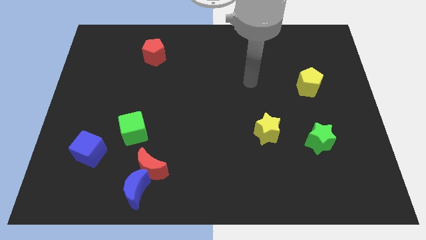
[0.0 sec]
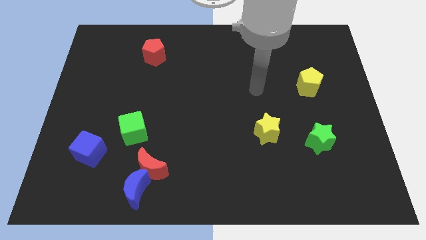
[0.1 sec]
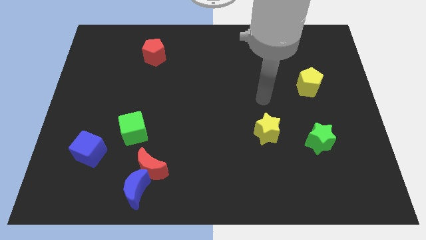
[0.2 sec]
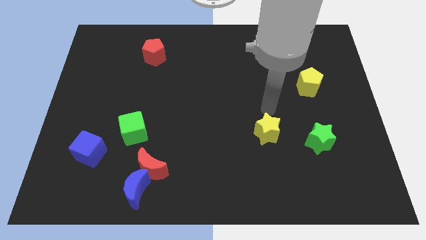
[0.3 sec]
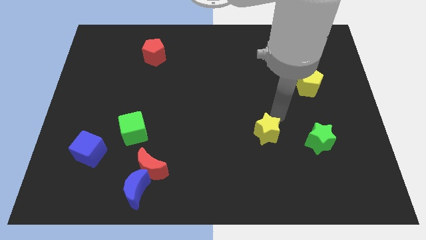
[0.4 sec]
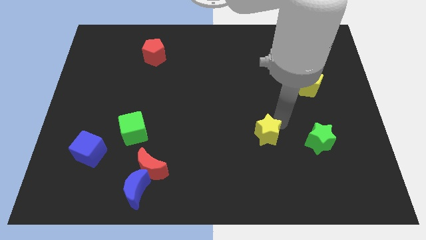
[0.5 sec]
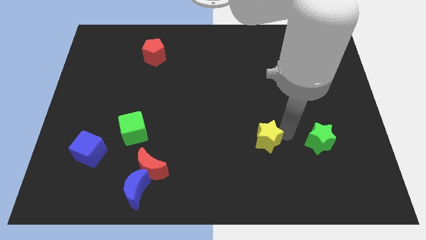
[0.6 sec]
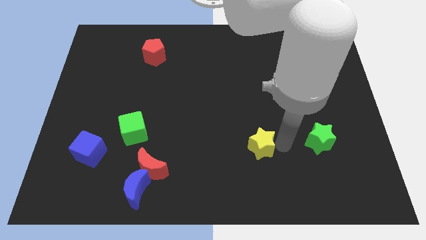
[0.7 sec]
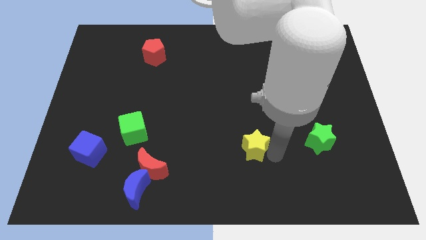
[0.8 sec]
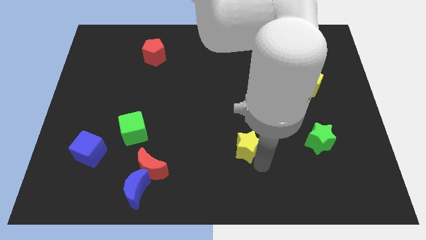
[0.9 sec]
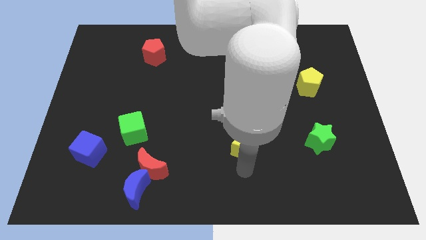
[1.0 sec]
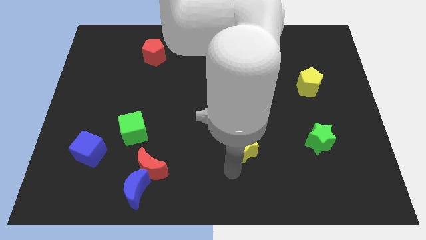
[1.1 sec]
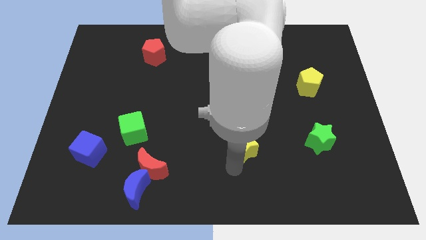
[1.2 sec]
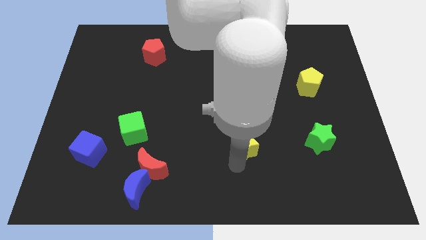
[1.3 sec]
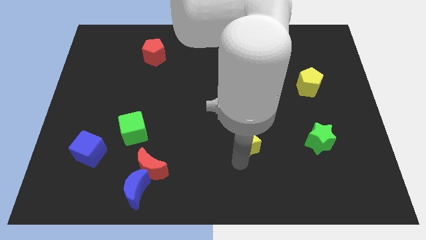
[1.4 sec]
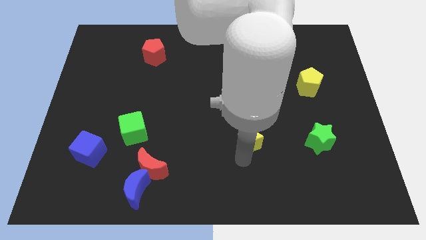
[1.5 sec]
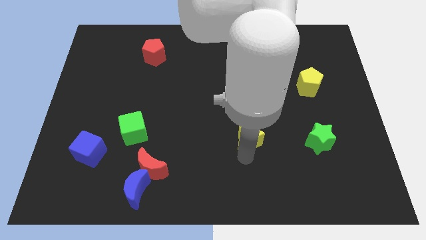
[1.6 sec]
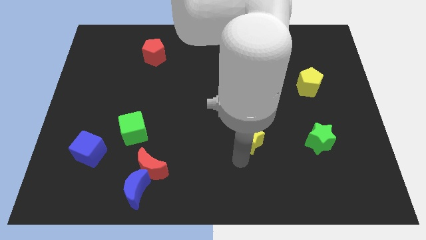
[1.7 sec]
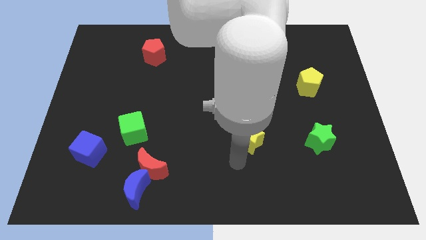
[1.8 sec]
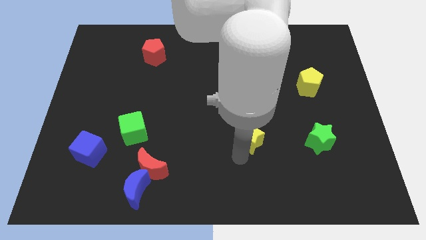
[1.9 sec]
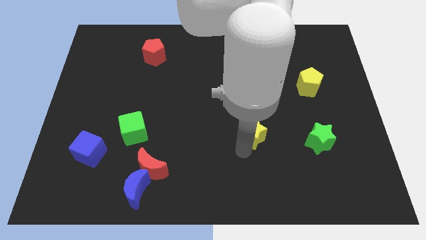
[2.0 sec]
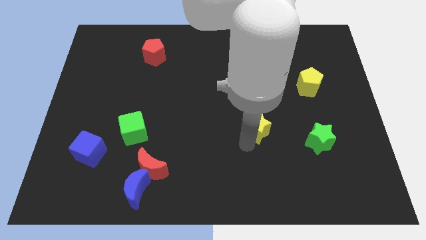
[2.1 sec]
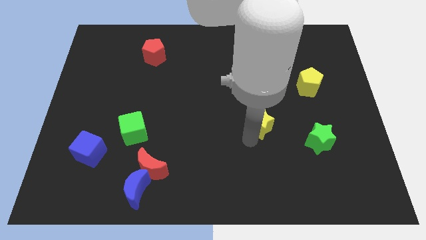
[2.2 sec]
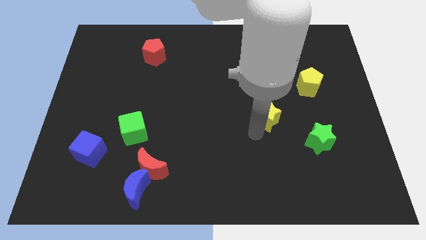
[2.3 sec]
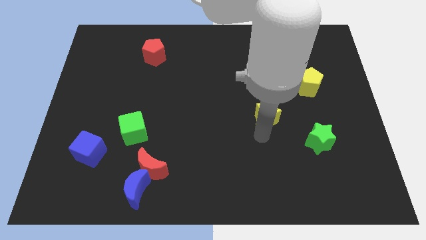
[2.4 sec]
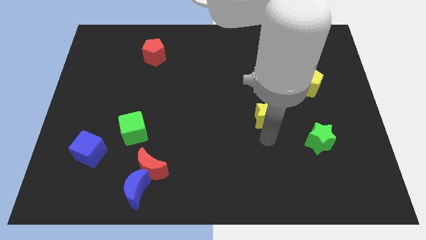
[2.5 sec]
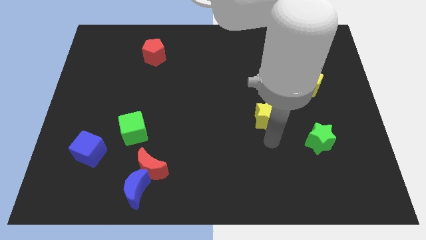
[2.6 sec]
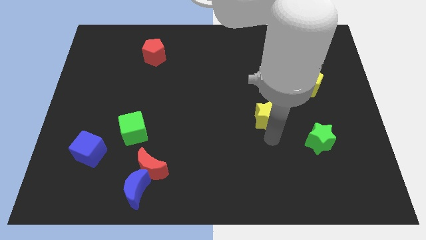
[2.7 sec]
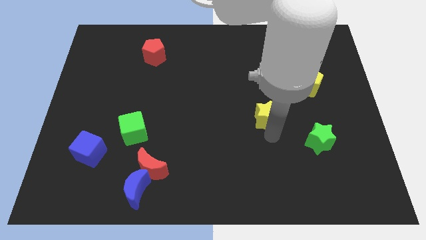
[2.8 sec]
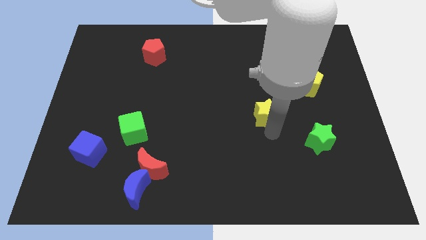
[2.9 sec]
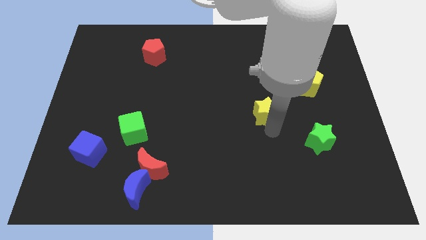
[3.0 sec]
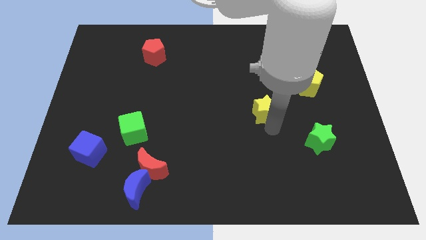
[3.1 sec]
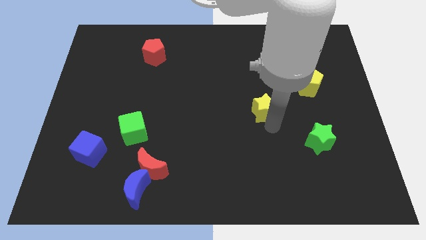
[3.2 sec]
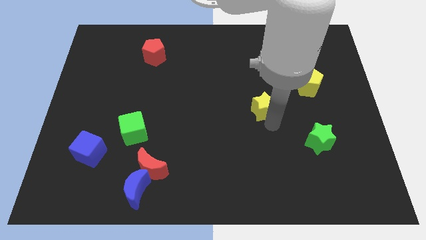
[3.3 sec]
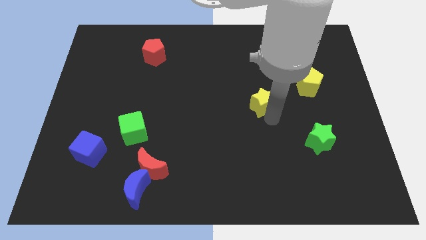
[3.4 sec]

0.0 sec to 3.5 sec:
slightly slide the yellow star upwards

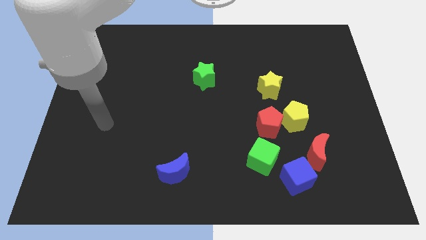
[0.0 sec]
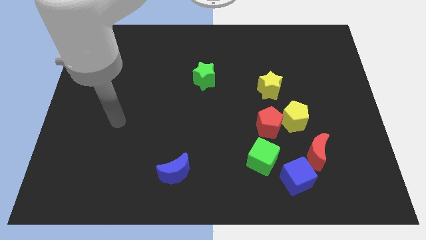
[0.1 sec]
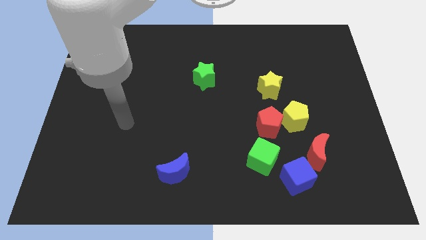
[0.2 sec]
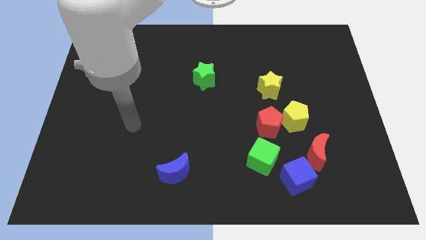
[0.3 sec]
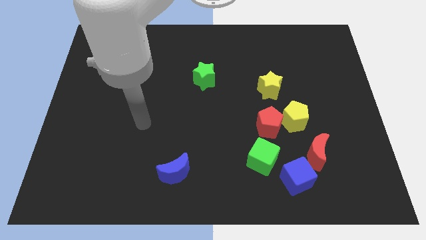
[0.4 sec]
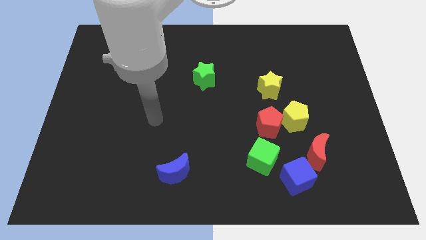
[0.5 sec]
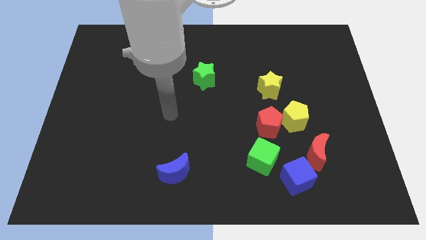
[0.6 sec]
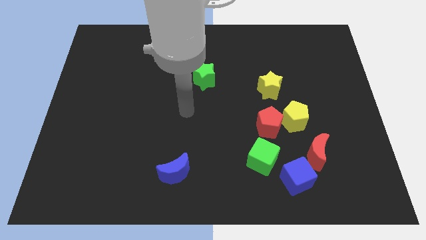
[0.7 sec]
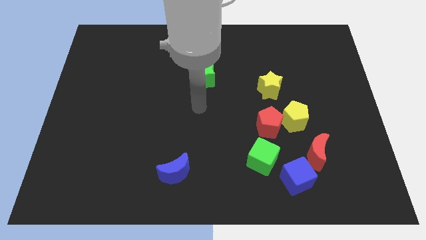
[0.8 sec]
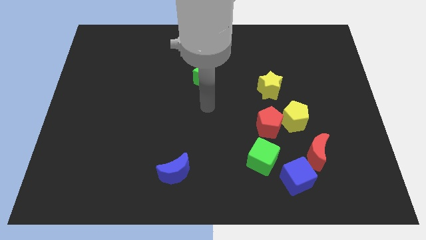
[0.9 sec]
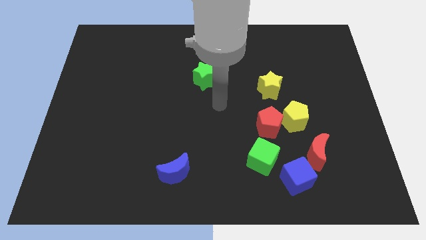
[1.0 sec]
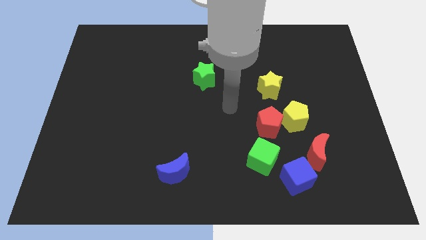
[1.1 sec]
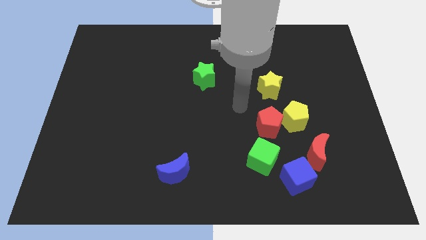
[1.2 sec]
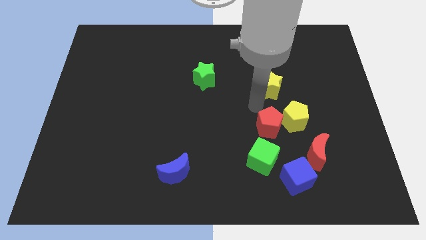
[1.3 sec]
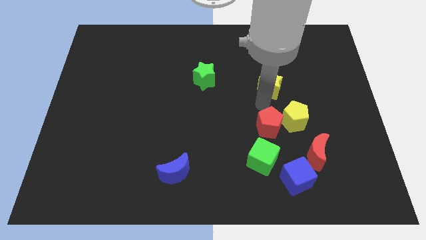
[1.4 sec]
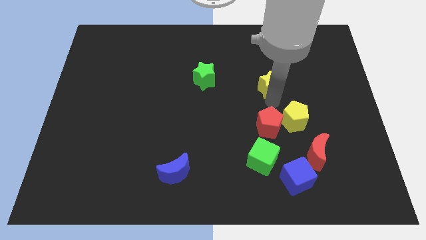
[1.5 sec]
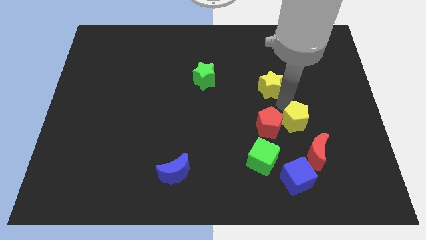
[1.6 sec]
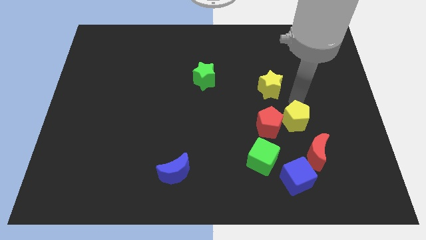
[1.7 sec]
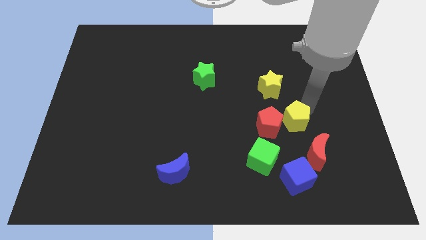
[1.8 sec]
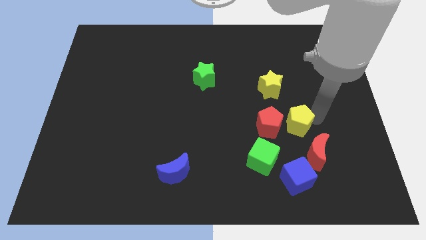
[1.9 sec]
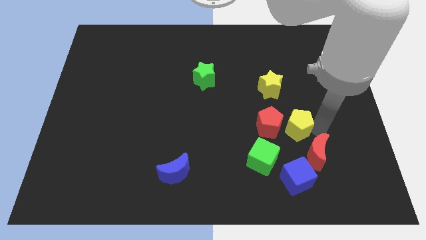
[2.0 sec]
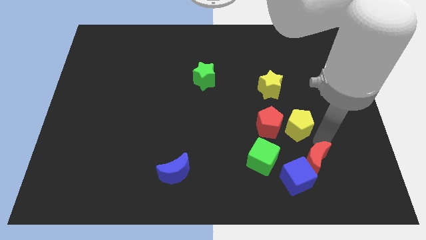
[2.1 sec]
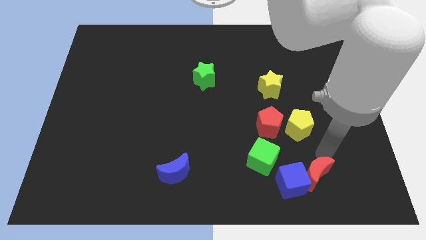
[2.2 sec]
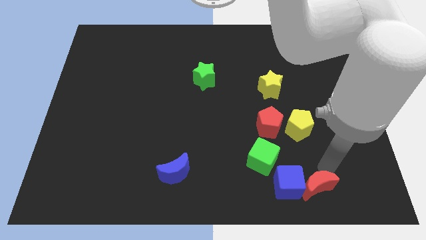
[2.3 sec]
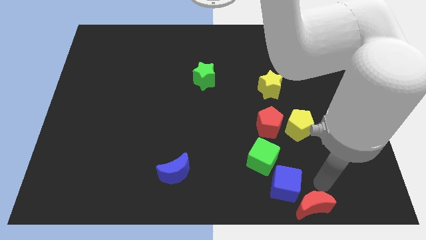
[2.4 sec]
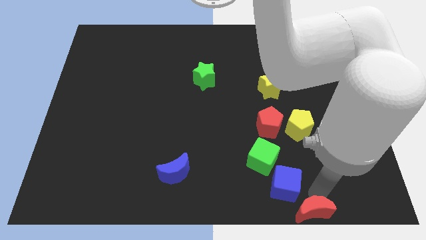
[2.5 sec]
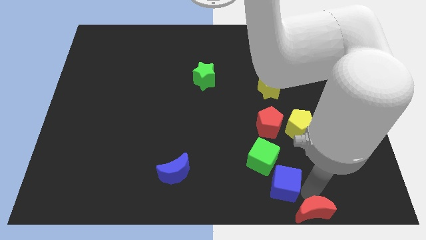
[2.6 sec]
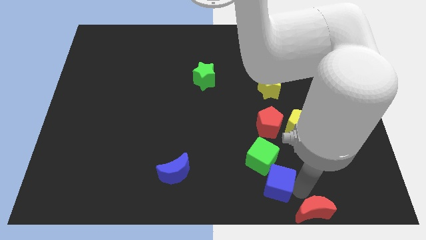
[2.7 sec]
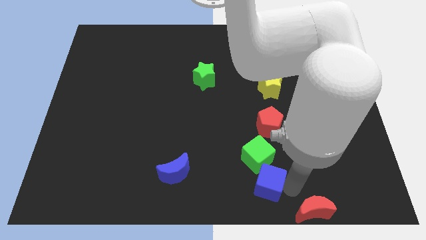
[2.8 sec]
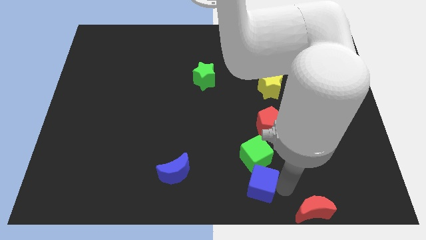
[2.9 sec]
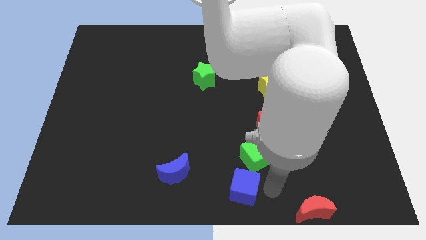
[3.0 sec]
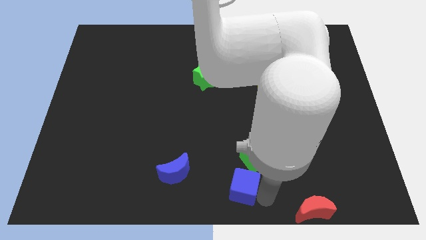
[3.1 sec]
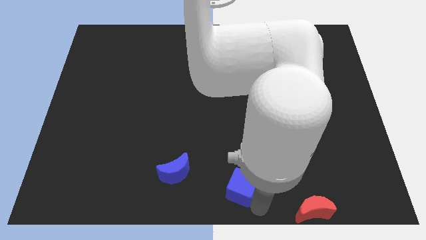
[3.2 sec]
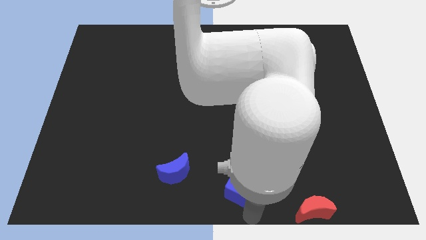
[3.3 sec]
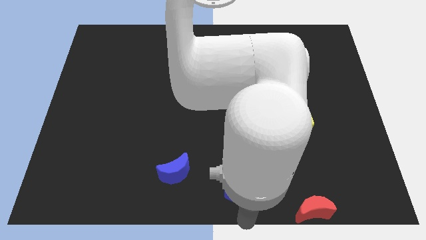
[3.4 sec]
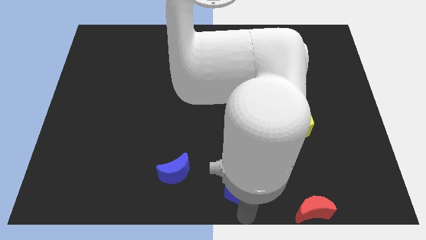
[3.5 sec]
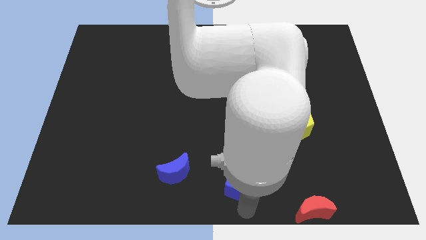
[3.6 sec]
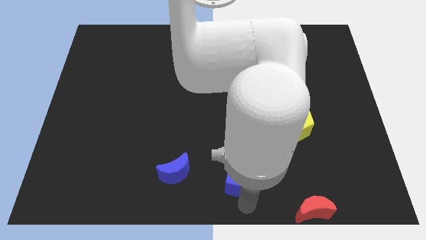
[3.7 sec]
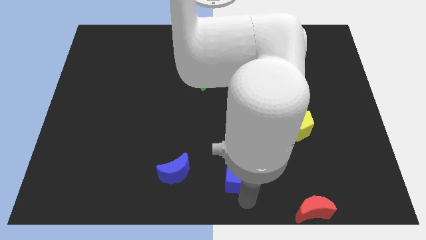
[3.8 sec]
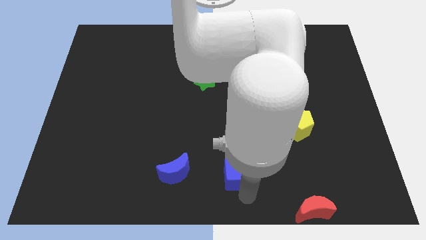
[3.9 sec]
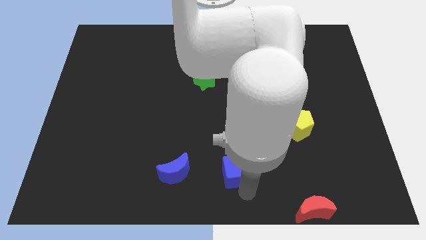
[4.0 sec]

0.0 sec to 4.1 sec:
move the blue cube a little bit up and then left

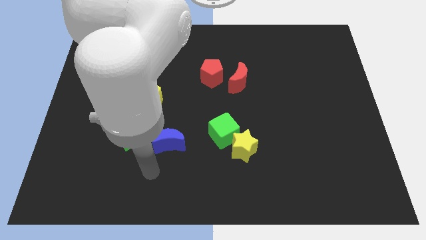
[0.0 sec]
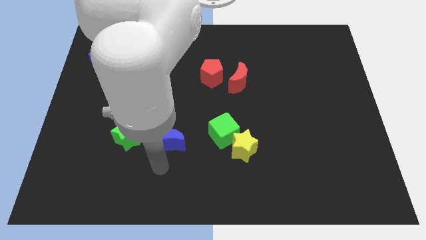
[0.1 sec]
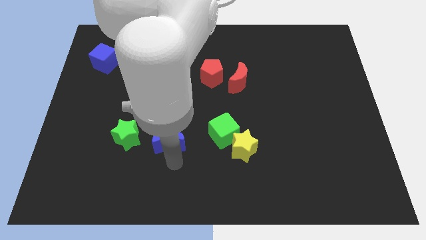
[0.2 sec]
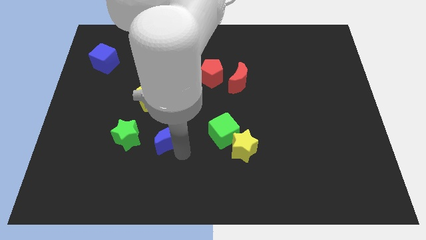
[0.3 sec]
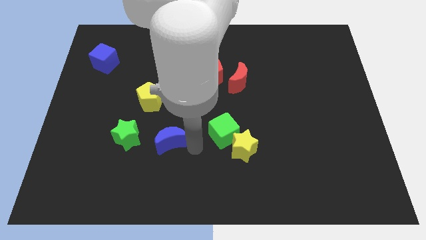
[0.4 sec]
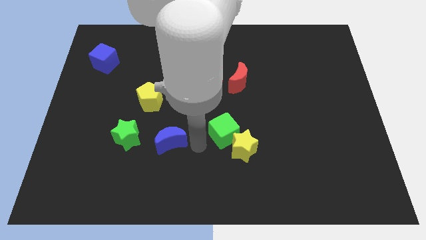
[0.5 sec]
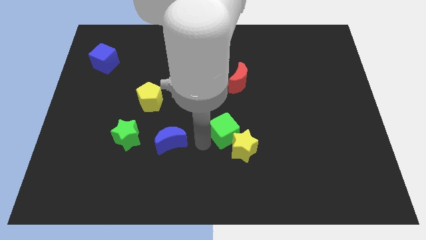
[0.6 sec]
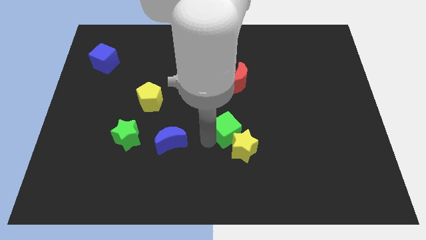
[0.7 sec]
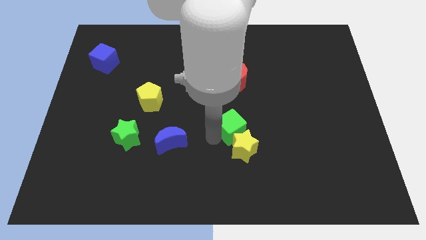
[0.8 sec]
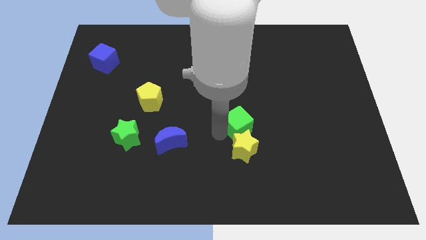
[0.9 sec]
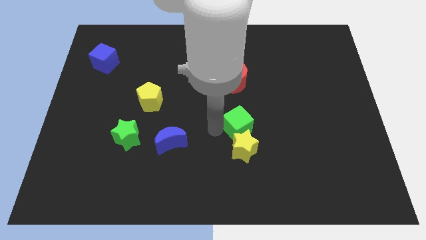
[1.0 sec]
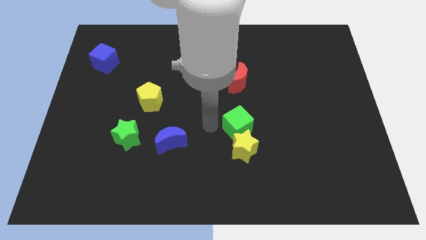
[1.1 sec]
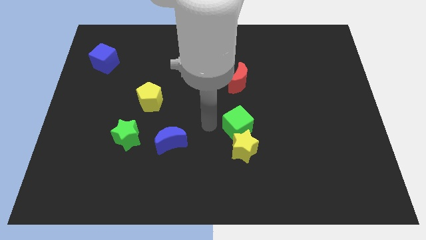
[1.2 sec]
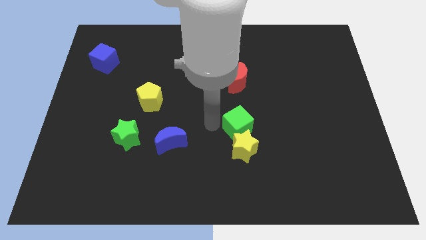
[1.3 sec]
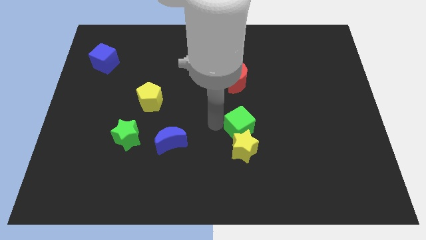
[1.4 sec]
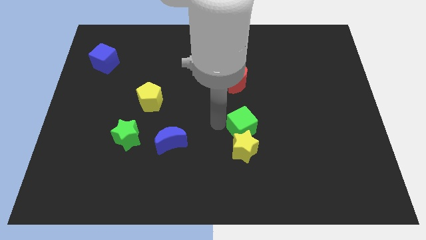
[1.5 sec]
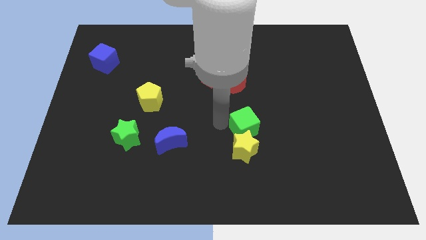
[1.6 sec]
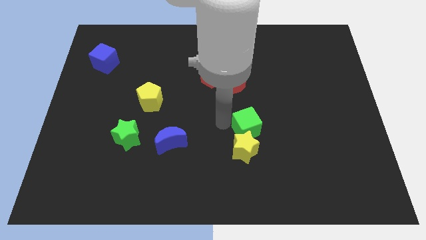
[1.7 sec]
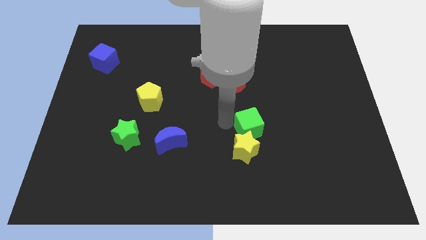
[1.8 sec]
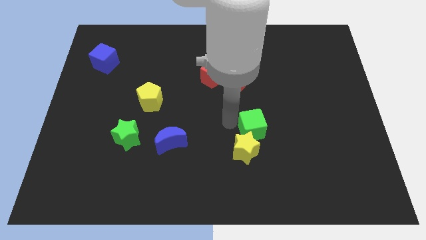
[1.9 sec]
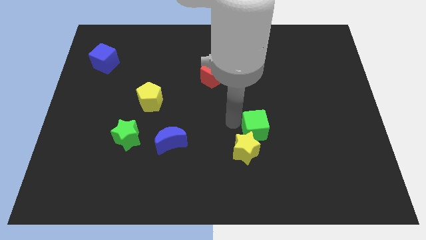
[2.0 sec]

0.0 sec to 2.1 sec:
slightly slide the green cube to the right
